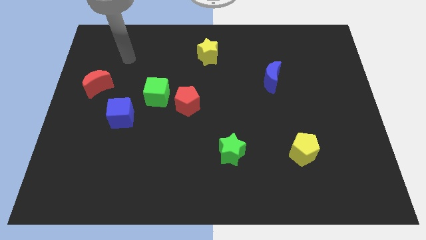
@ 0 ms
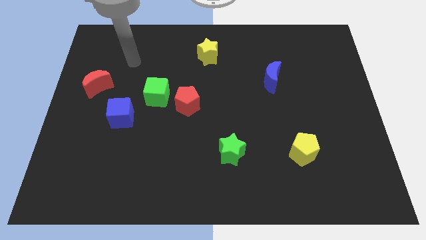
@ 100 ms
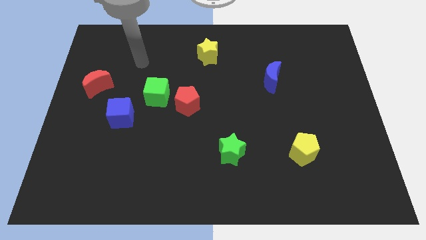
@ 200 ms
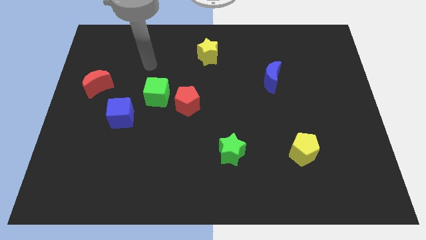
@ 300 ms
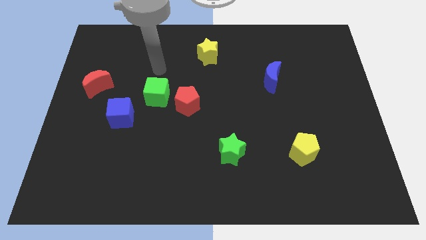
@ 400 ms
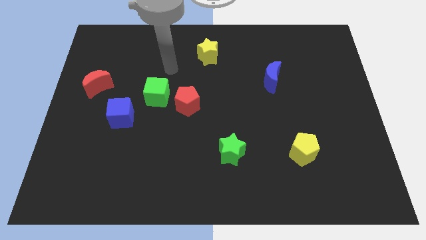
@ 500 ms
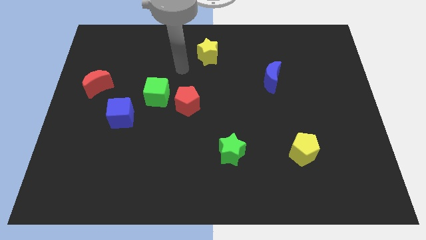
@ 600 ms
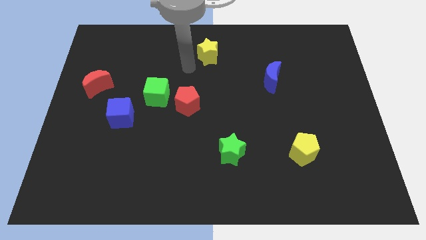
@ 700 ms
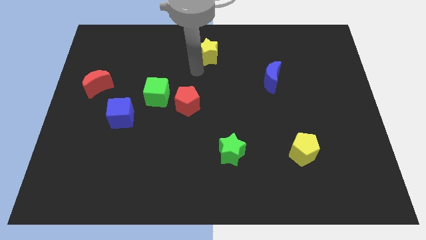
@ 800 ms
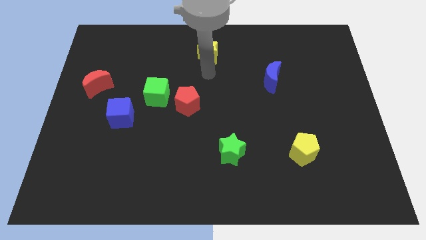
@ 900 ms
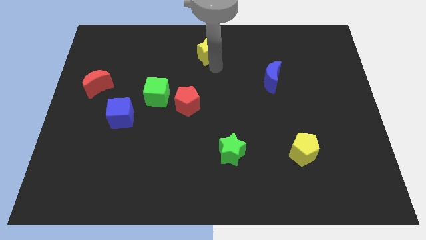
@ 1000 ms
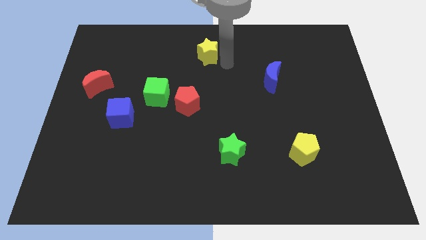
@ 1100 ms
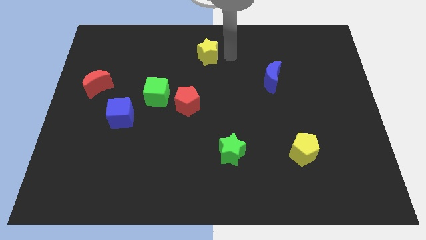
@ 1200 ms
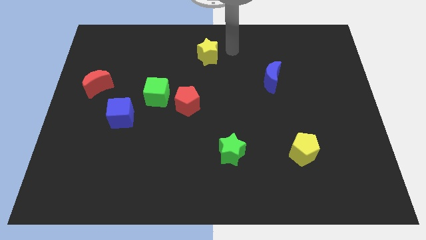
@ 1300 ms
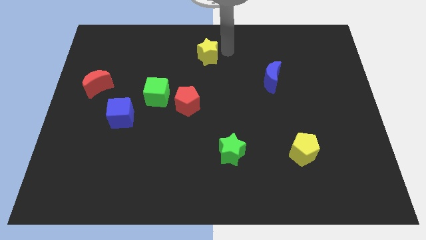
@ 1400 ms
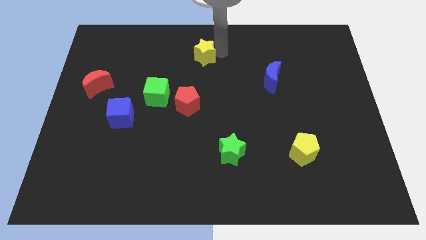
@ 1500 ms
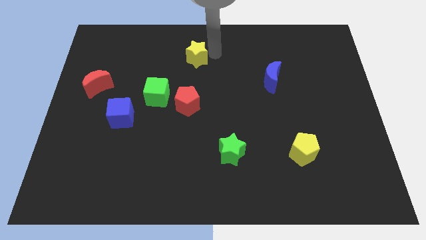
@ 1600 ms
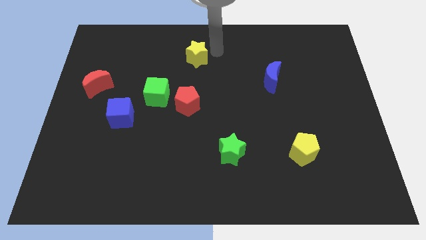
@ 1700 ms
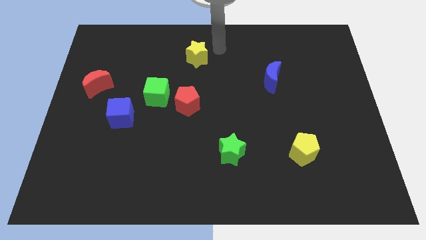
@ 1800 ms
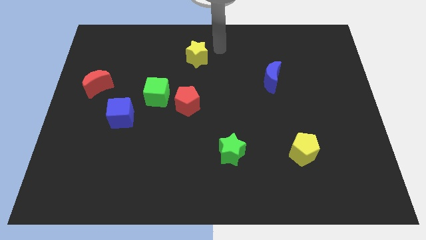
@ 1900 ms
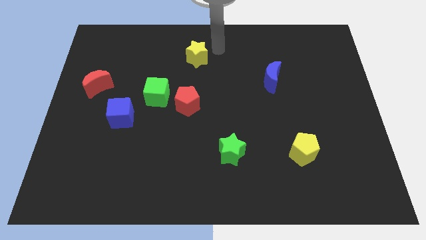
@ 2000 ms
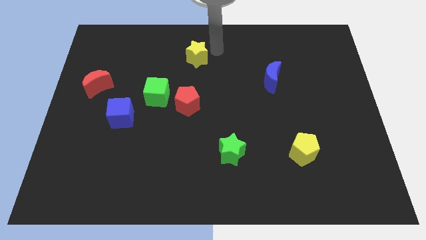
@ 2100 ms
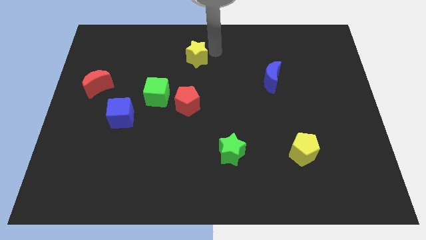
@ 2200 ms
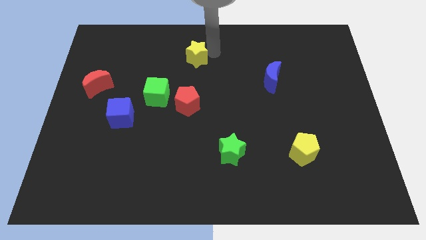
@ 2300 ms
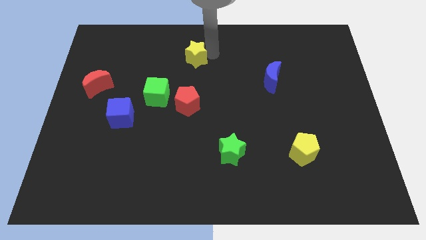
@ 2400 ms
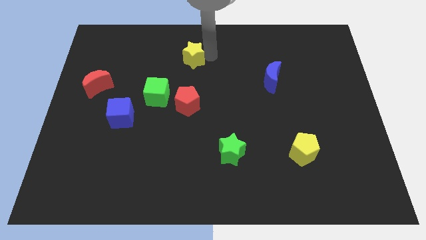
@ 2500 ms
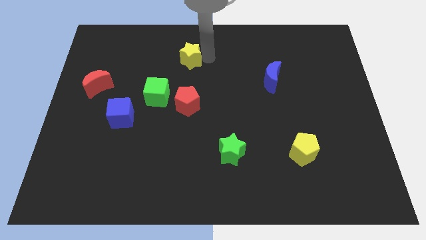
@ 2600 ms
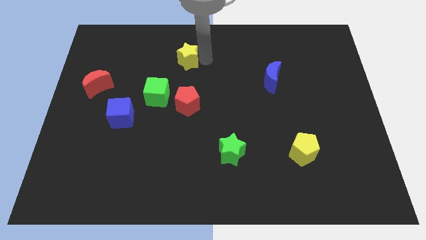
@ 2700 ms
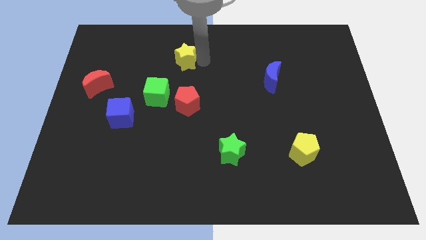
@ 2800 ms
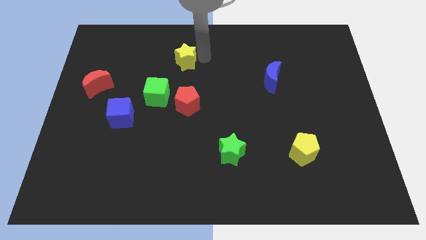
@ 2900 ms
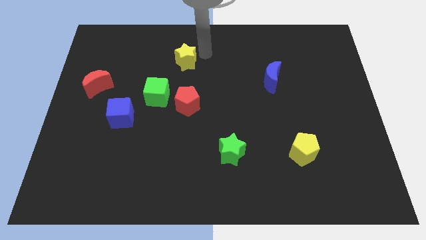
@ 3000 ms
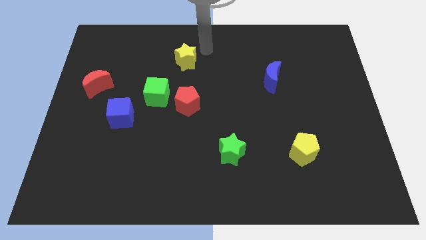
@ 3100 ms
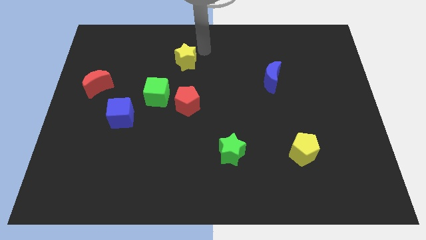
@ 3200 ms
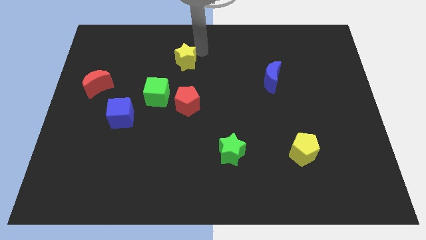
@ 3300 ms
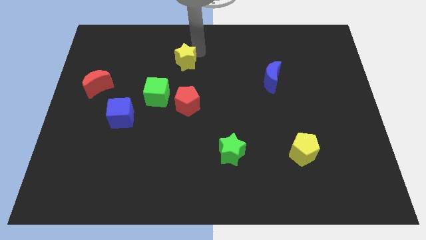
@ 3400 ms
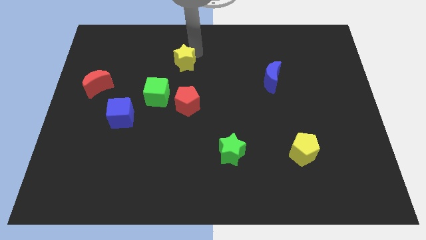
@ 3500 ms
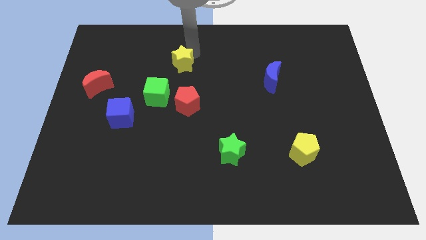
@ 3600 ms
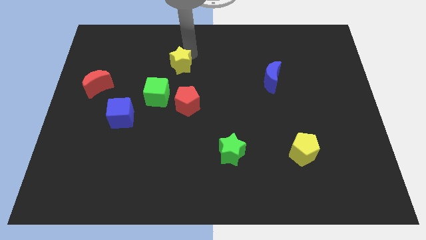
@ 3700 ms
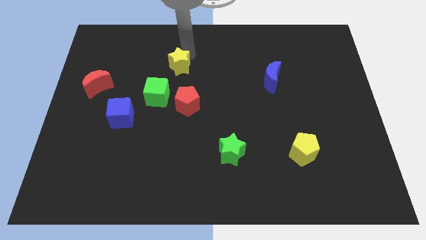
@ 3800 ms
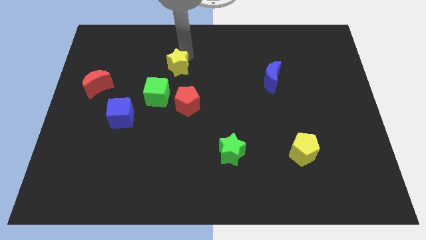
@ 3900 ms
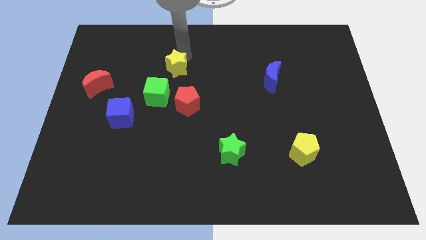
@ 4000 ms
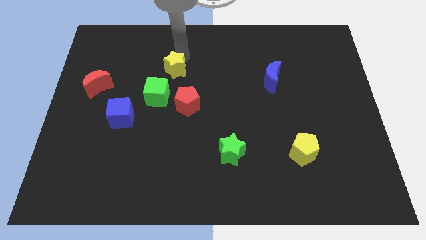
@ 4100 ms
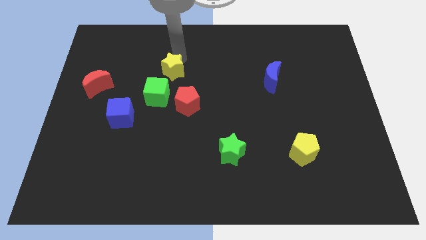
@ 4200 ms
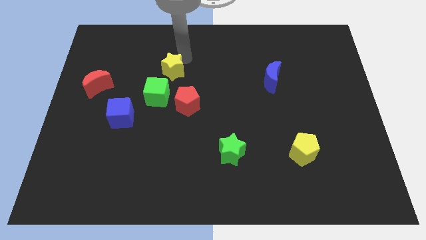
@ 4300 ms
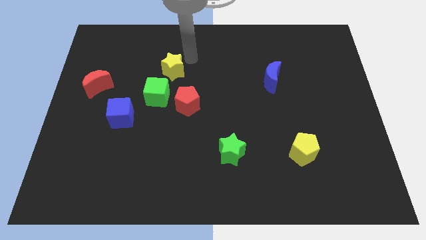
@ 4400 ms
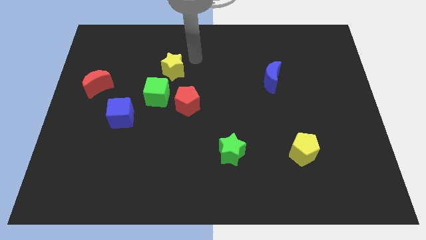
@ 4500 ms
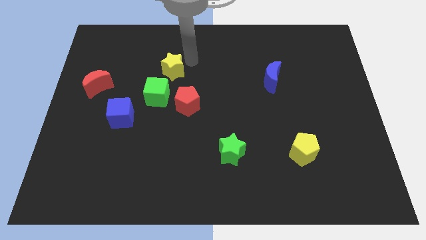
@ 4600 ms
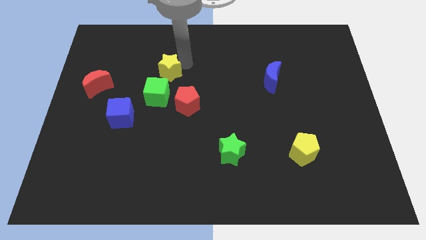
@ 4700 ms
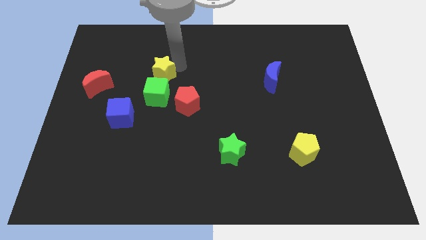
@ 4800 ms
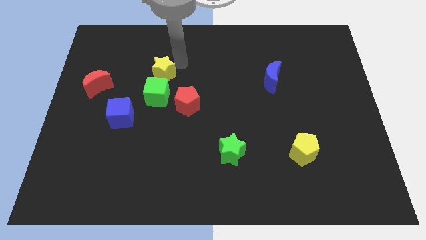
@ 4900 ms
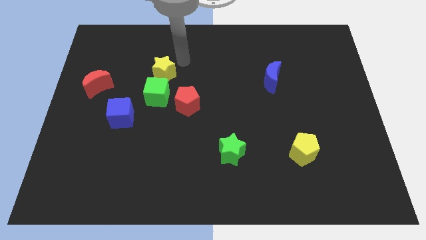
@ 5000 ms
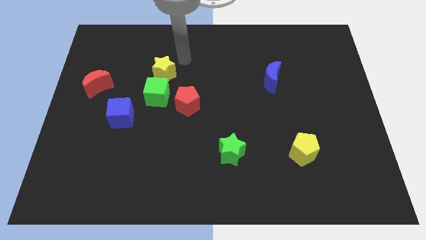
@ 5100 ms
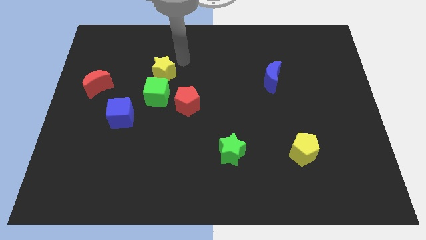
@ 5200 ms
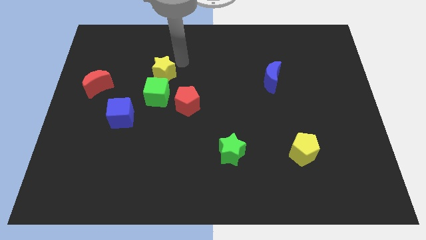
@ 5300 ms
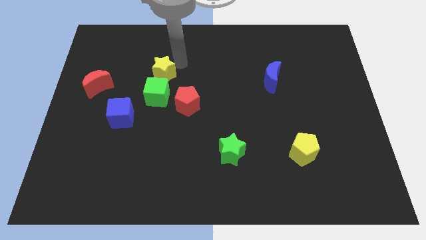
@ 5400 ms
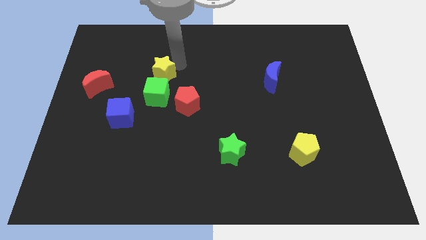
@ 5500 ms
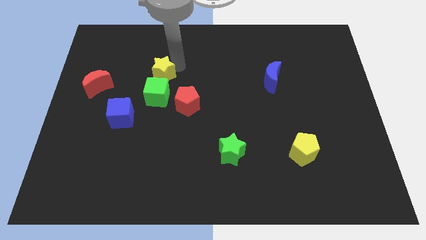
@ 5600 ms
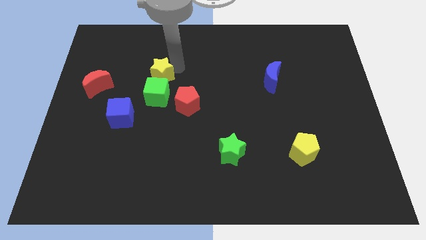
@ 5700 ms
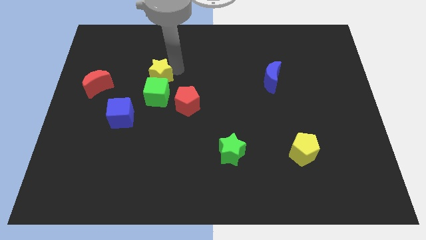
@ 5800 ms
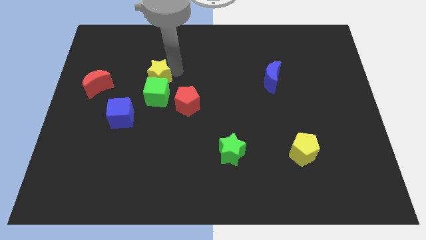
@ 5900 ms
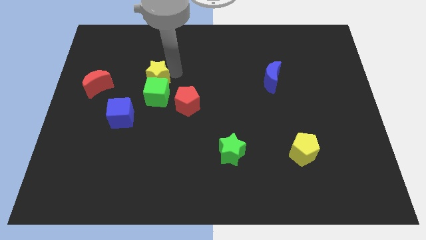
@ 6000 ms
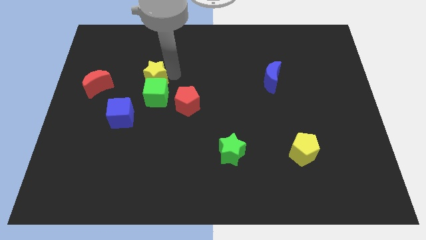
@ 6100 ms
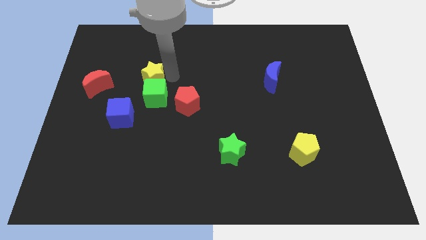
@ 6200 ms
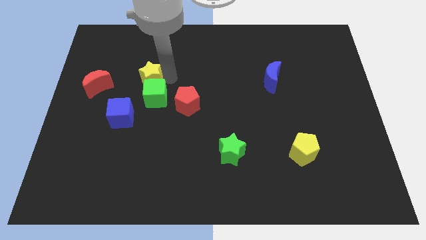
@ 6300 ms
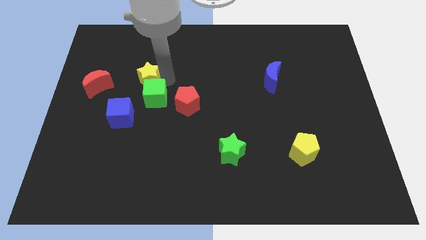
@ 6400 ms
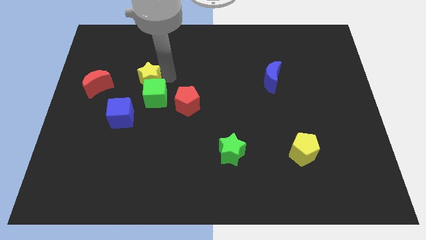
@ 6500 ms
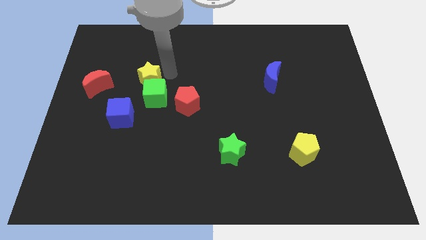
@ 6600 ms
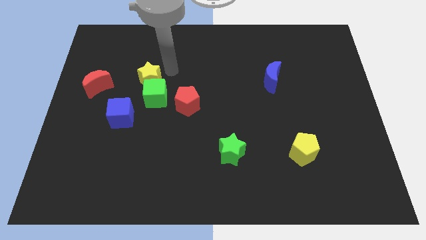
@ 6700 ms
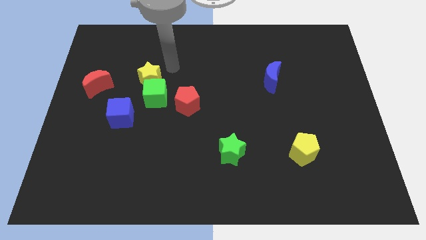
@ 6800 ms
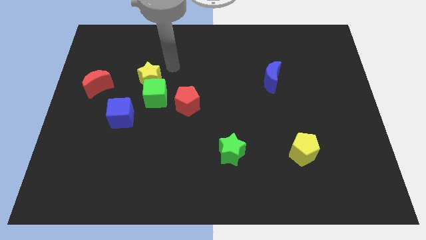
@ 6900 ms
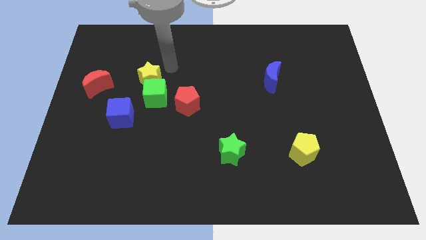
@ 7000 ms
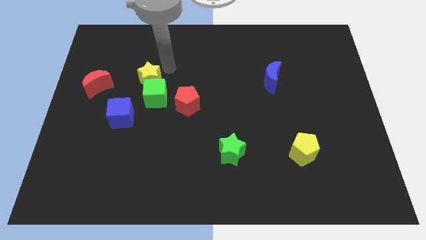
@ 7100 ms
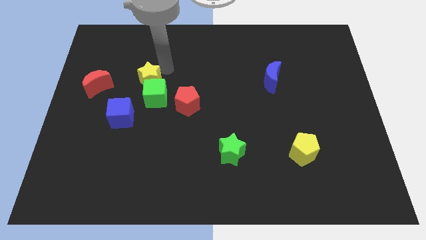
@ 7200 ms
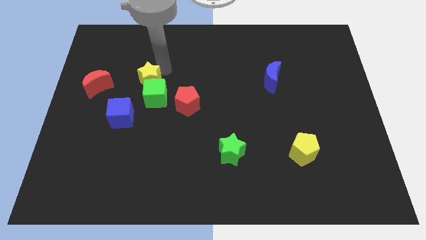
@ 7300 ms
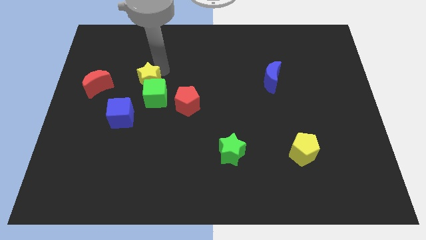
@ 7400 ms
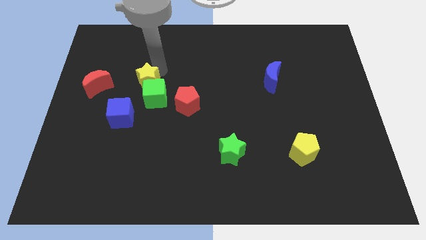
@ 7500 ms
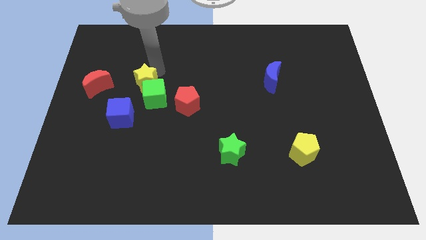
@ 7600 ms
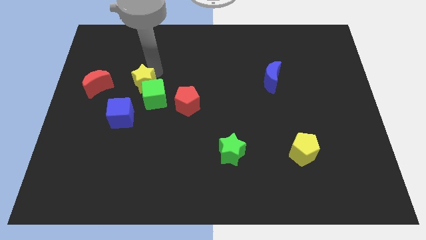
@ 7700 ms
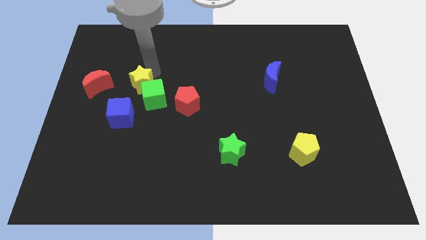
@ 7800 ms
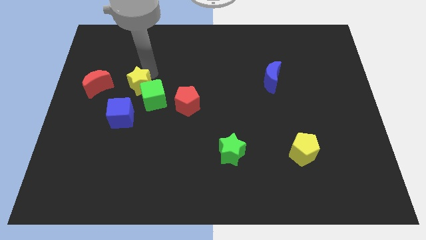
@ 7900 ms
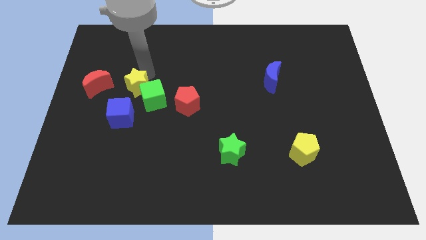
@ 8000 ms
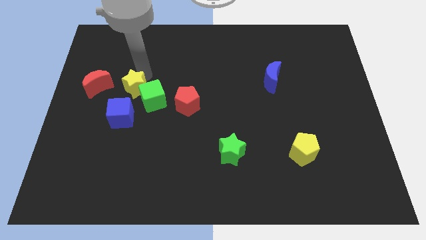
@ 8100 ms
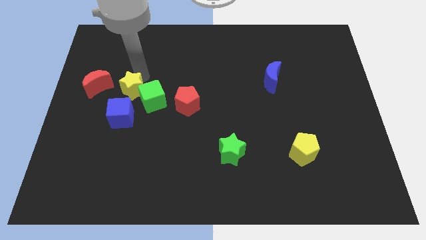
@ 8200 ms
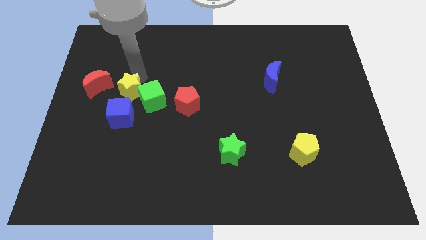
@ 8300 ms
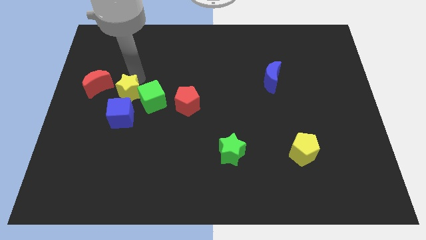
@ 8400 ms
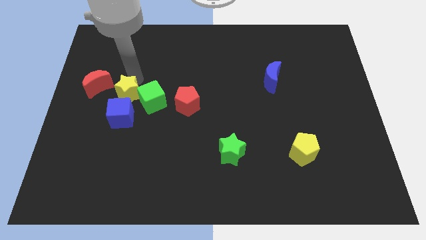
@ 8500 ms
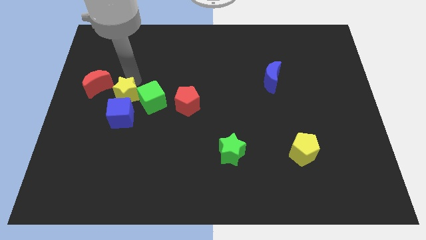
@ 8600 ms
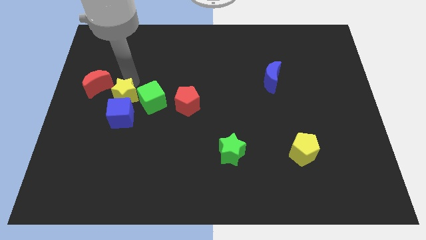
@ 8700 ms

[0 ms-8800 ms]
move the yellow star towards the blue cube
